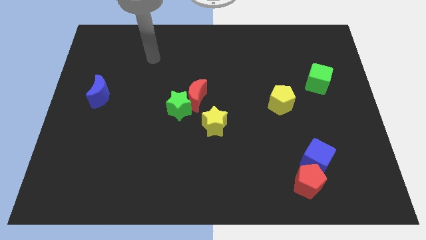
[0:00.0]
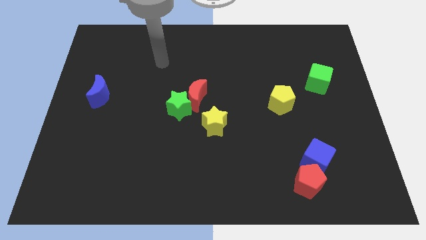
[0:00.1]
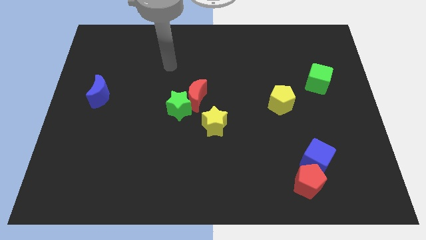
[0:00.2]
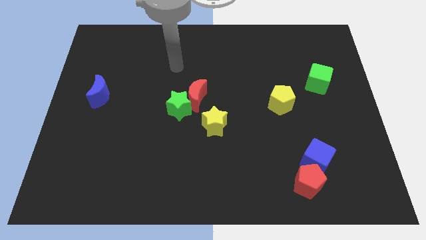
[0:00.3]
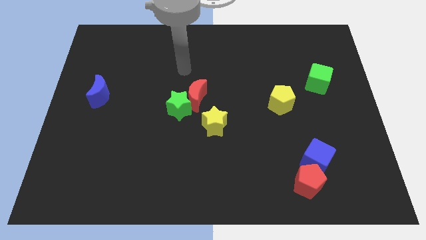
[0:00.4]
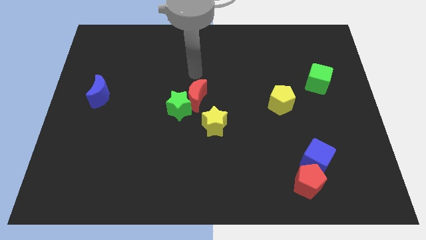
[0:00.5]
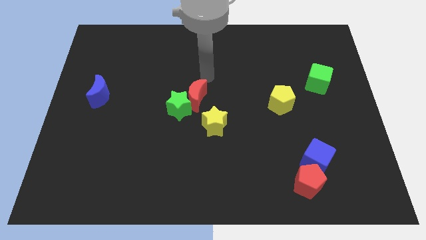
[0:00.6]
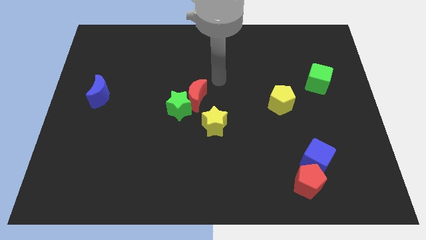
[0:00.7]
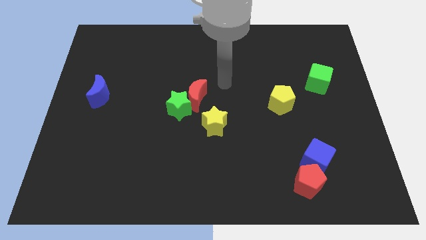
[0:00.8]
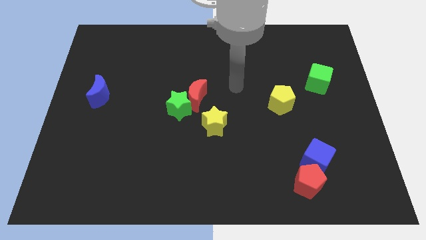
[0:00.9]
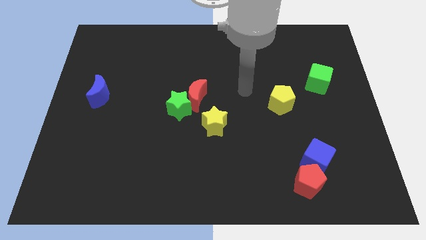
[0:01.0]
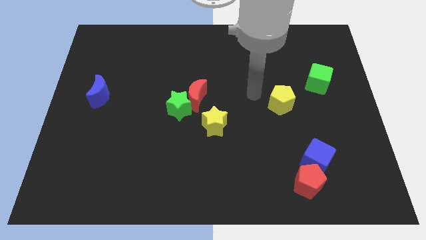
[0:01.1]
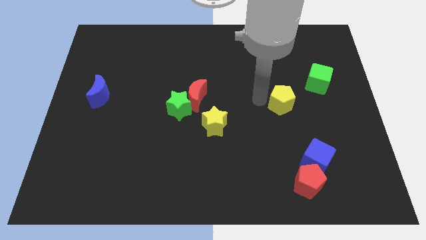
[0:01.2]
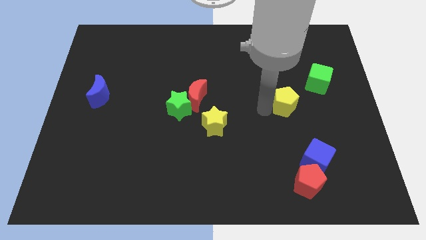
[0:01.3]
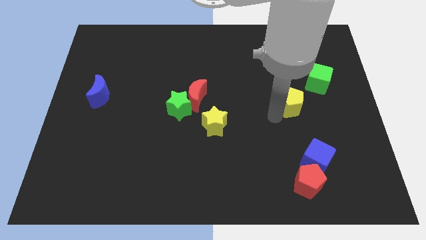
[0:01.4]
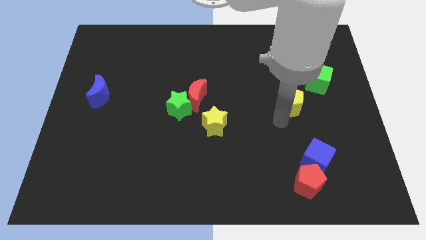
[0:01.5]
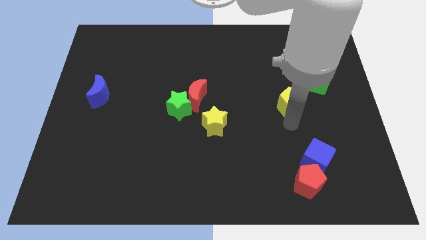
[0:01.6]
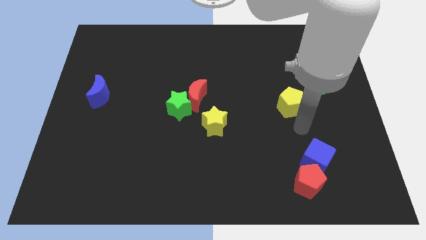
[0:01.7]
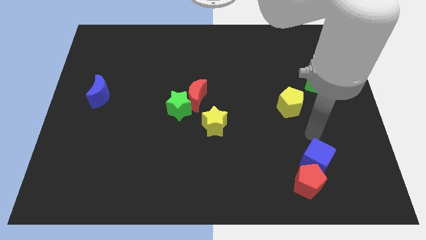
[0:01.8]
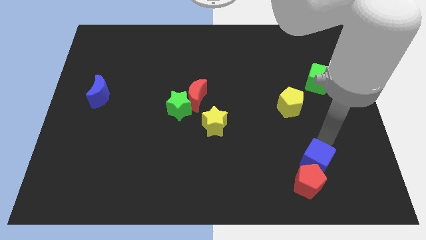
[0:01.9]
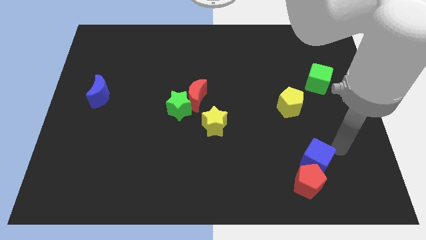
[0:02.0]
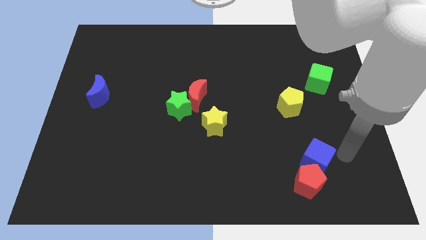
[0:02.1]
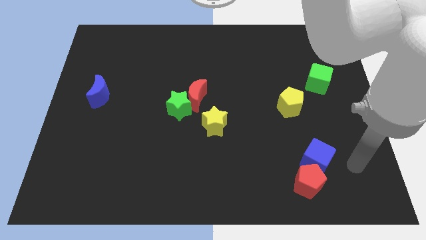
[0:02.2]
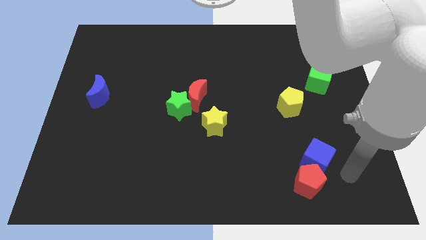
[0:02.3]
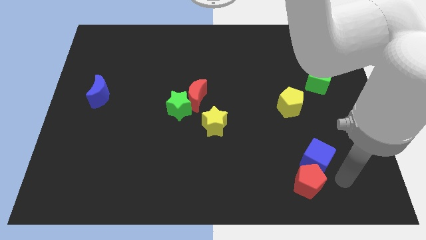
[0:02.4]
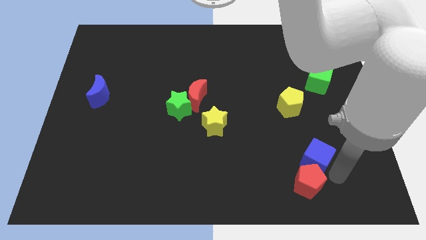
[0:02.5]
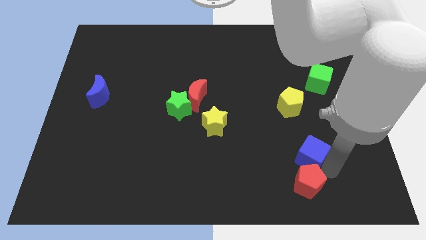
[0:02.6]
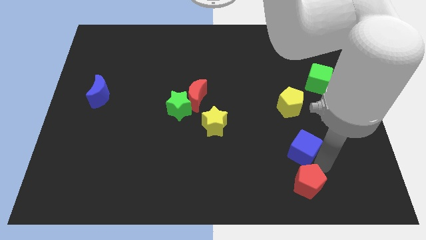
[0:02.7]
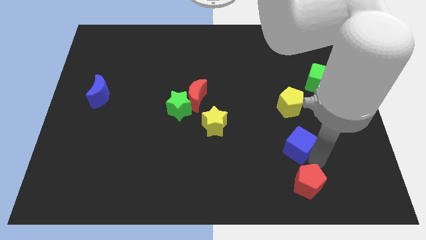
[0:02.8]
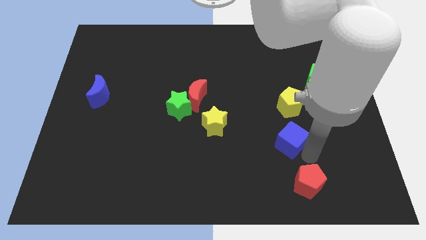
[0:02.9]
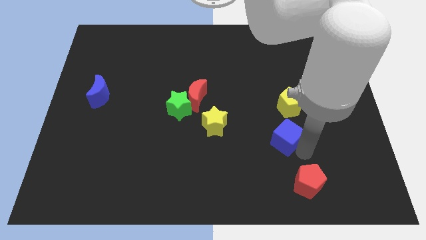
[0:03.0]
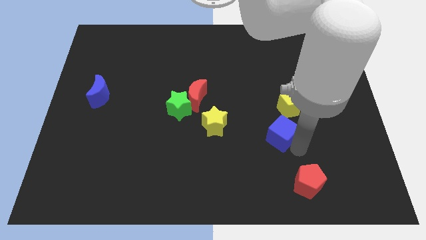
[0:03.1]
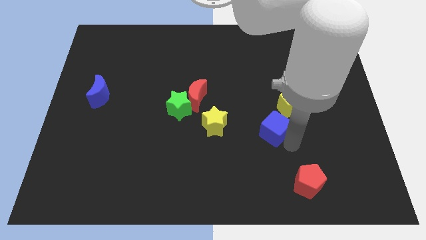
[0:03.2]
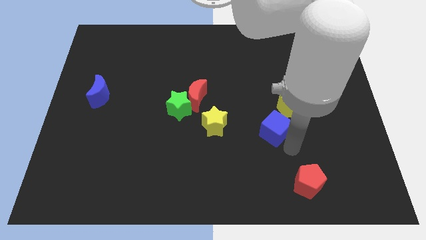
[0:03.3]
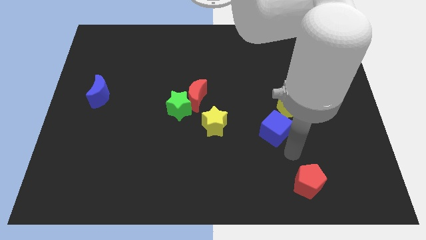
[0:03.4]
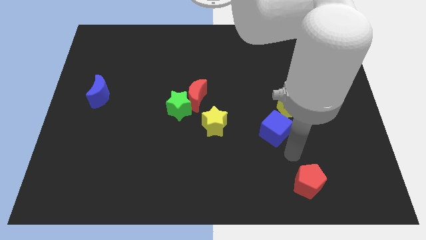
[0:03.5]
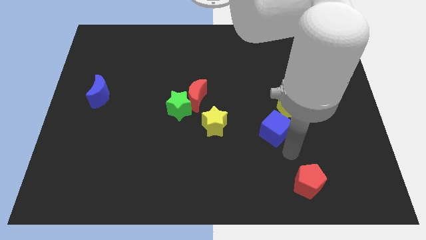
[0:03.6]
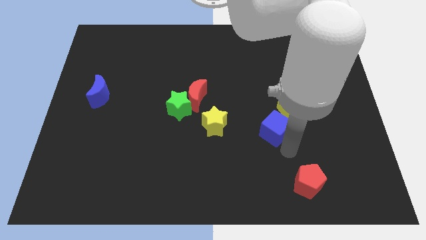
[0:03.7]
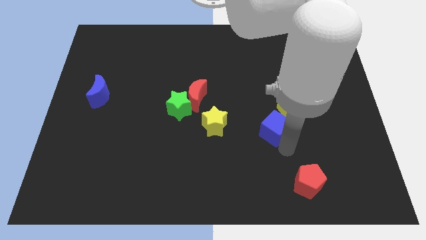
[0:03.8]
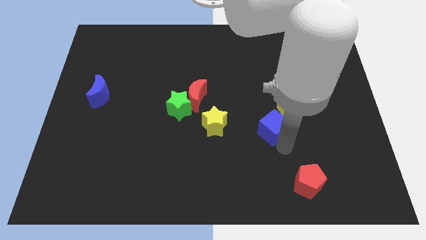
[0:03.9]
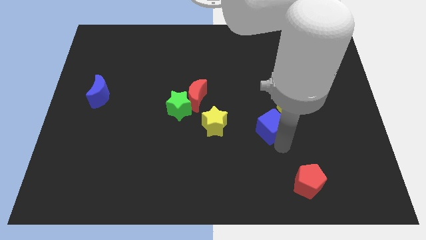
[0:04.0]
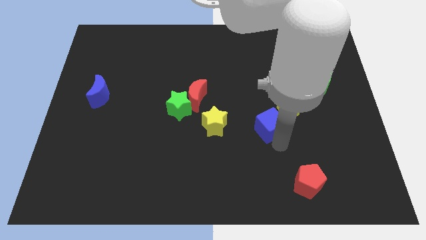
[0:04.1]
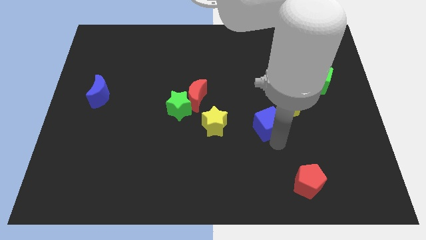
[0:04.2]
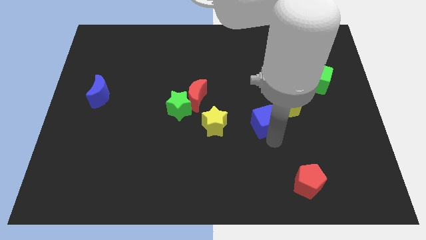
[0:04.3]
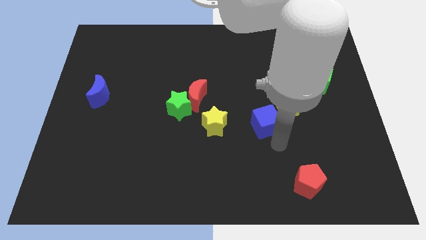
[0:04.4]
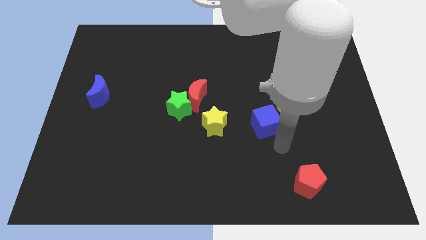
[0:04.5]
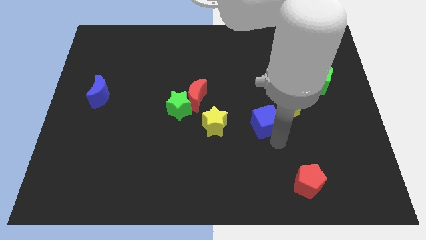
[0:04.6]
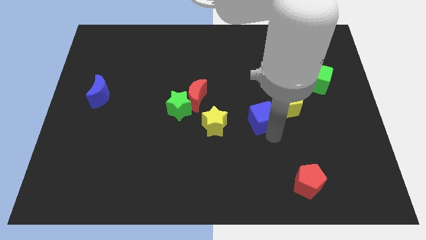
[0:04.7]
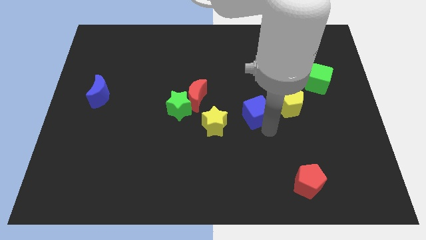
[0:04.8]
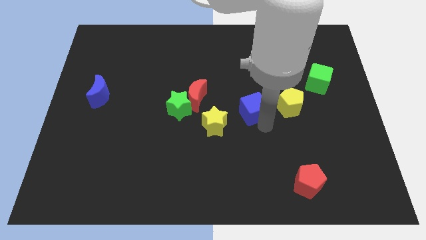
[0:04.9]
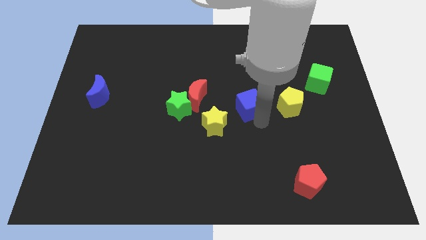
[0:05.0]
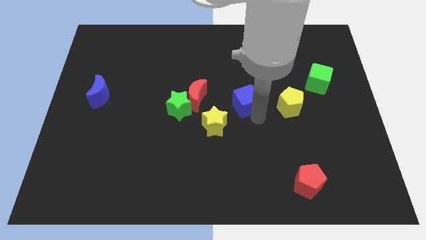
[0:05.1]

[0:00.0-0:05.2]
push the blue cube upwards and then to the left

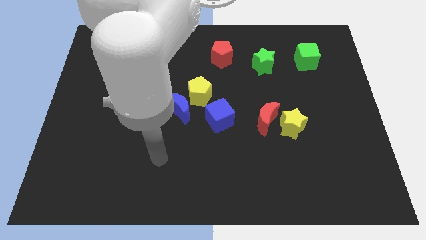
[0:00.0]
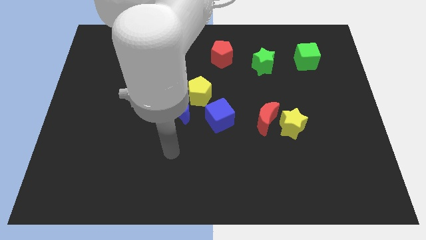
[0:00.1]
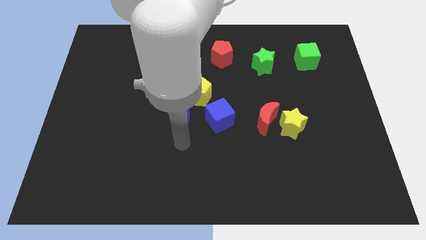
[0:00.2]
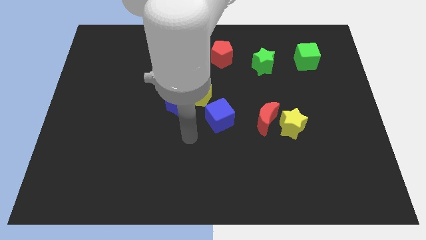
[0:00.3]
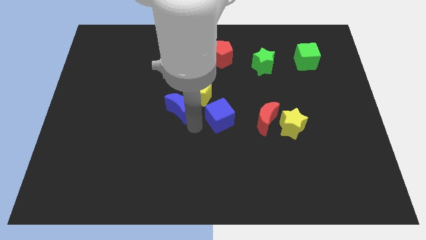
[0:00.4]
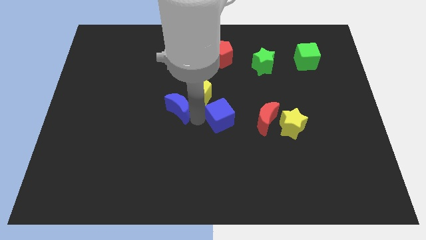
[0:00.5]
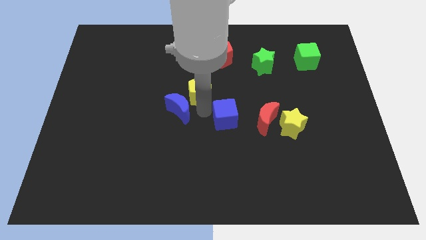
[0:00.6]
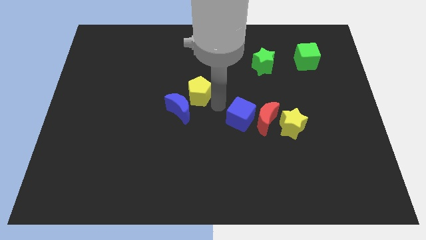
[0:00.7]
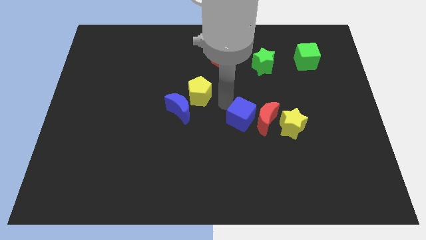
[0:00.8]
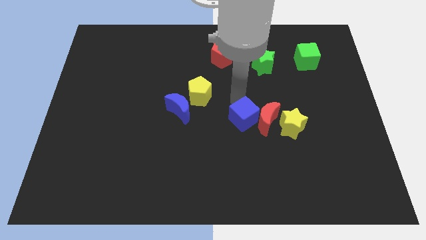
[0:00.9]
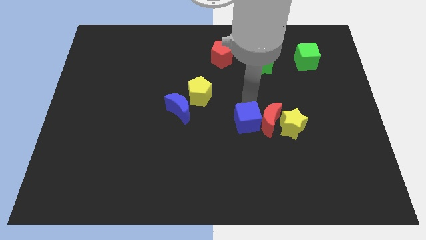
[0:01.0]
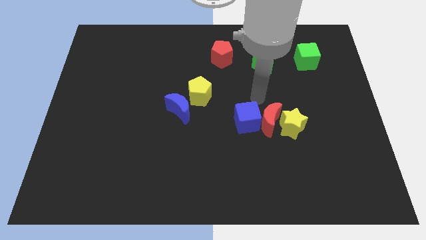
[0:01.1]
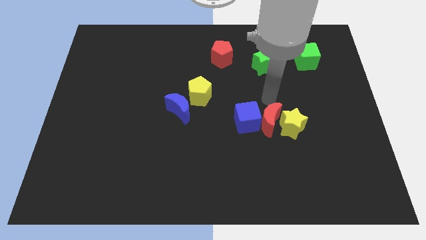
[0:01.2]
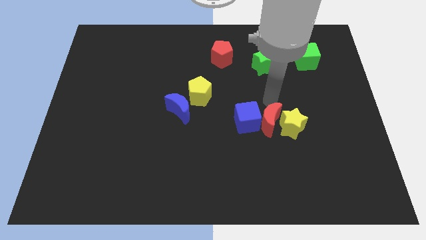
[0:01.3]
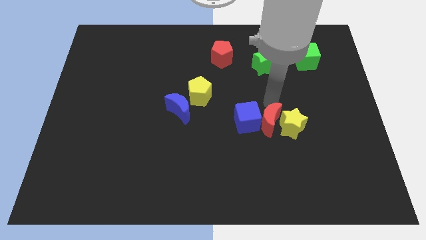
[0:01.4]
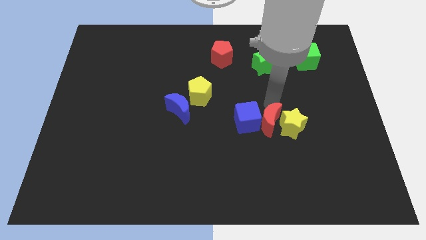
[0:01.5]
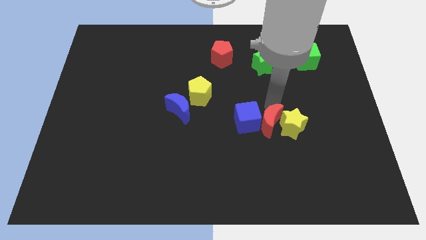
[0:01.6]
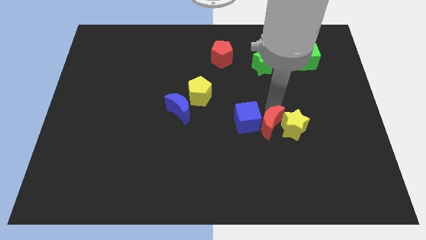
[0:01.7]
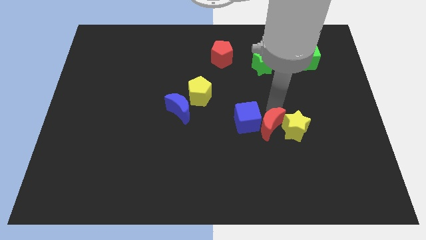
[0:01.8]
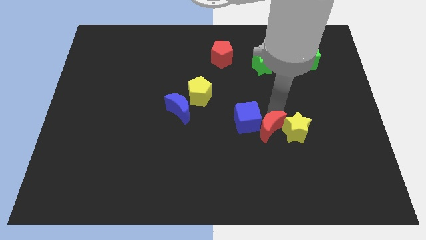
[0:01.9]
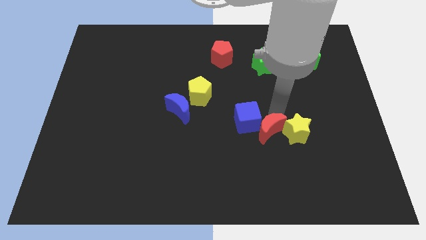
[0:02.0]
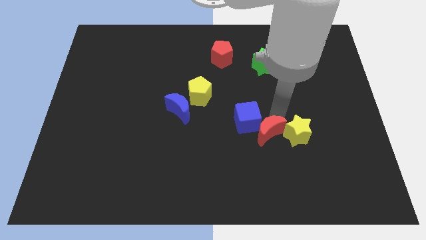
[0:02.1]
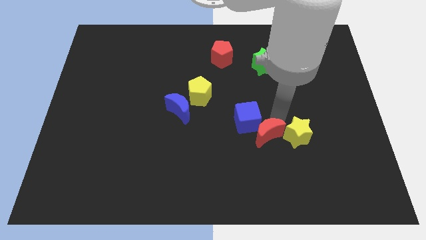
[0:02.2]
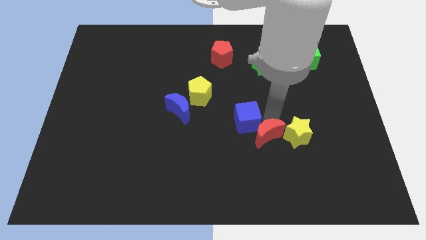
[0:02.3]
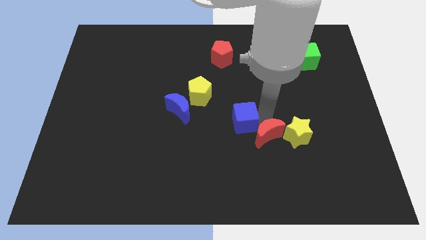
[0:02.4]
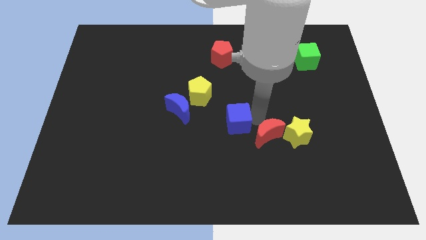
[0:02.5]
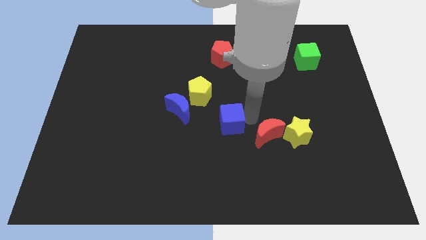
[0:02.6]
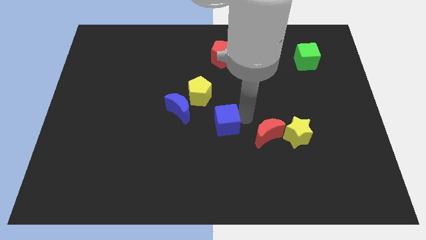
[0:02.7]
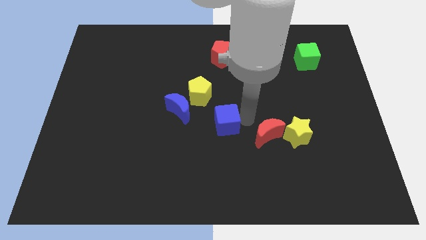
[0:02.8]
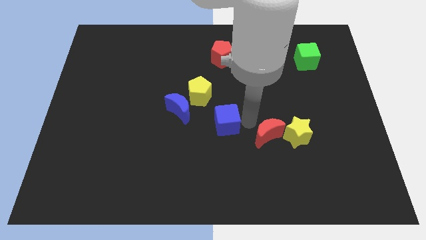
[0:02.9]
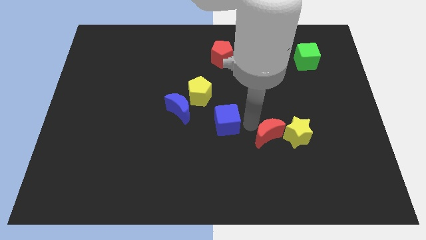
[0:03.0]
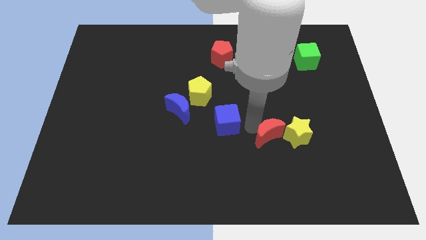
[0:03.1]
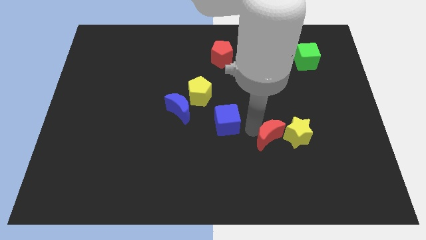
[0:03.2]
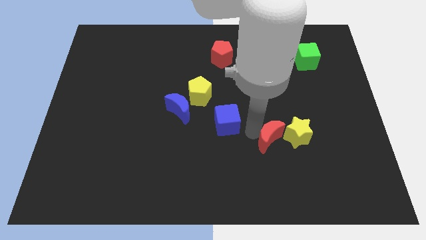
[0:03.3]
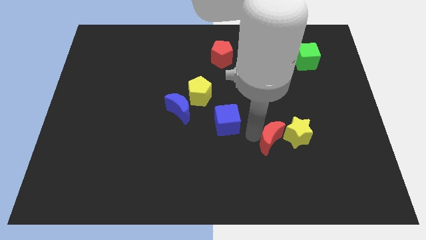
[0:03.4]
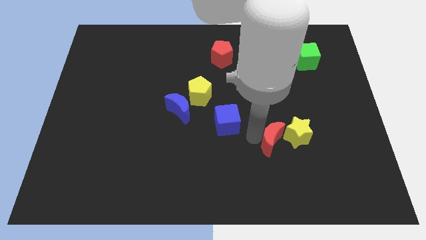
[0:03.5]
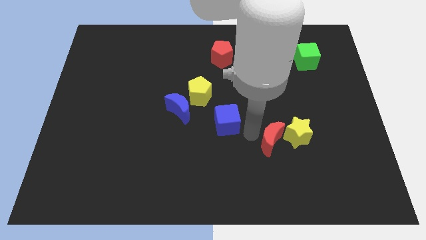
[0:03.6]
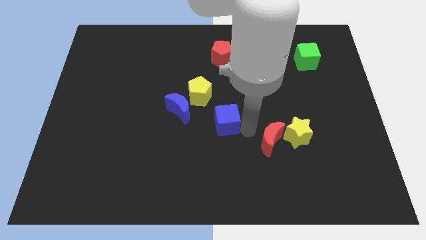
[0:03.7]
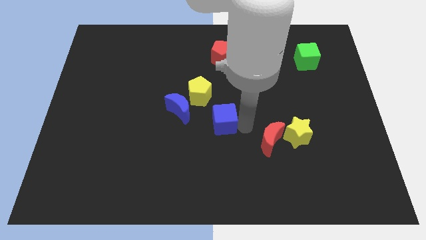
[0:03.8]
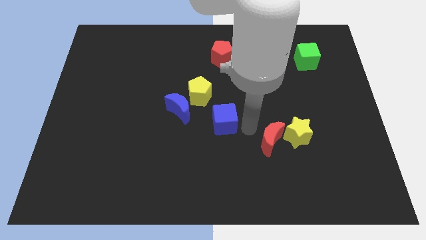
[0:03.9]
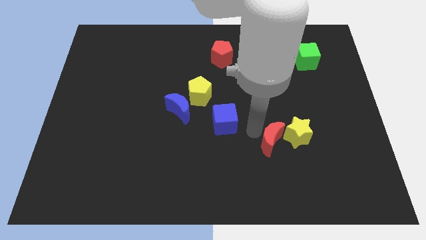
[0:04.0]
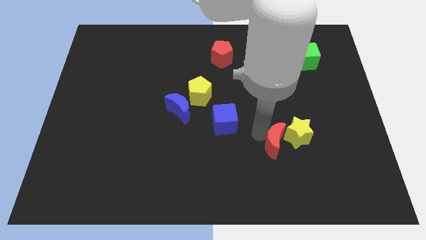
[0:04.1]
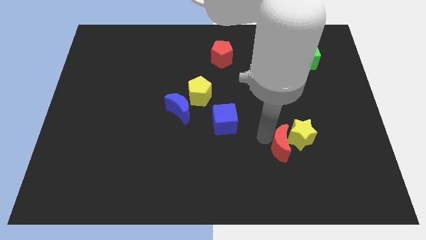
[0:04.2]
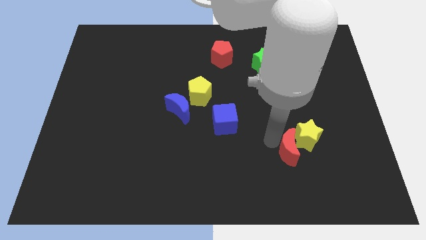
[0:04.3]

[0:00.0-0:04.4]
slide the red moon downwards and right diagonally slightly
